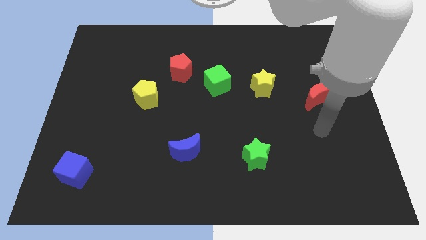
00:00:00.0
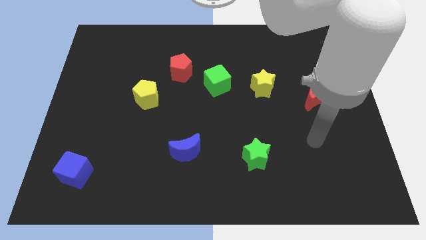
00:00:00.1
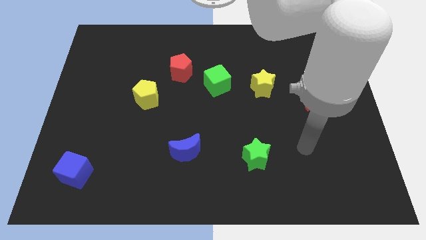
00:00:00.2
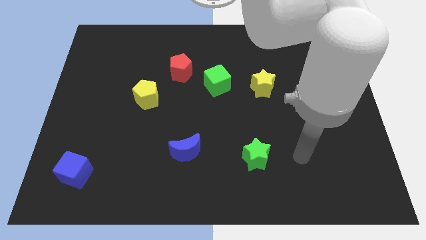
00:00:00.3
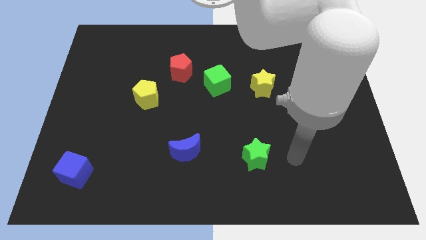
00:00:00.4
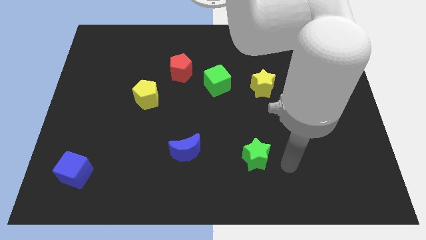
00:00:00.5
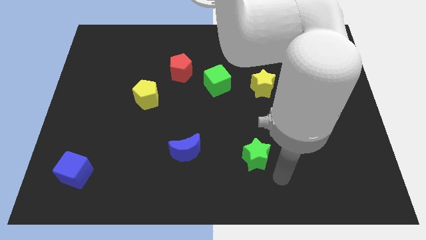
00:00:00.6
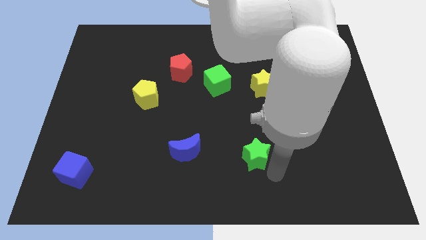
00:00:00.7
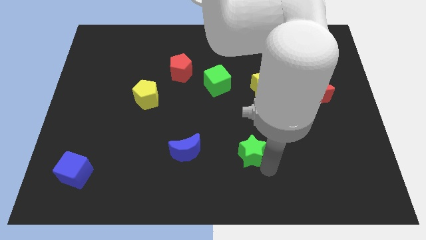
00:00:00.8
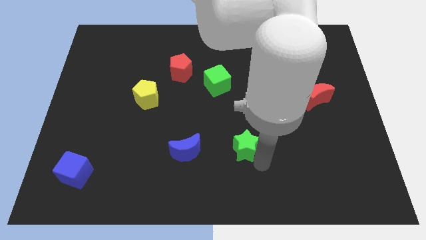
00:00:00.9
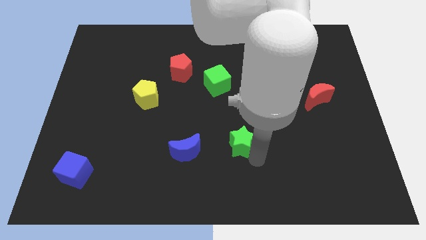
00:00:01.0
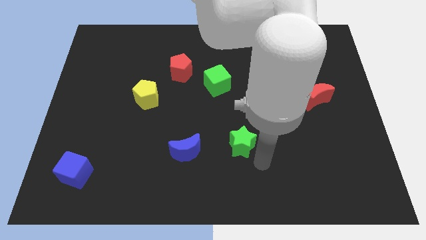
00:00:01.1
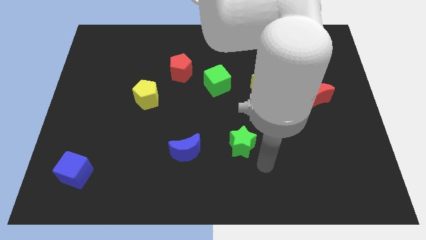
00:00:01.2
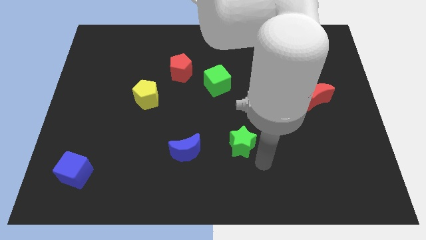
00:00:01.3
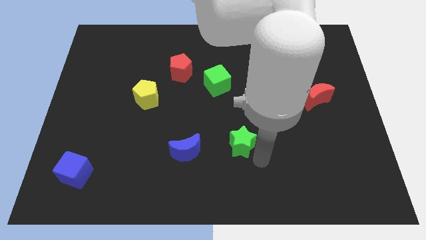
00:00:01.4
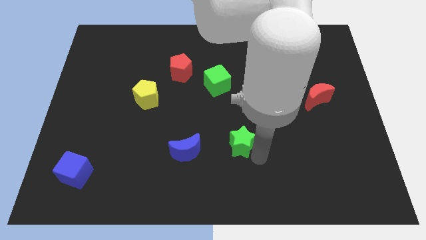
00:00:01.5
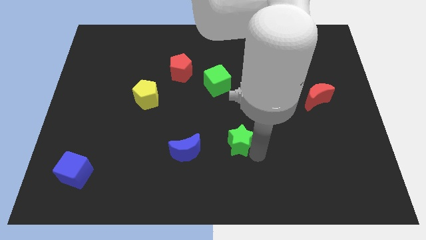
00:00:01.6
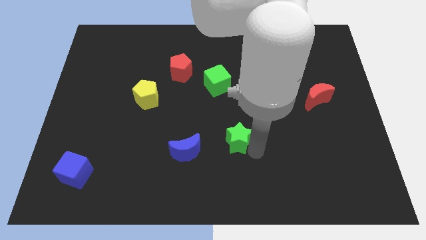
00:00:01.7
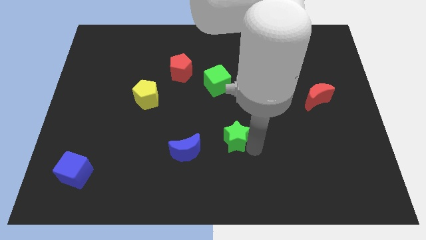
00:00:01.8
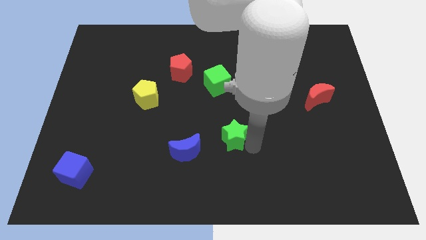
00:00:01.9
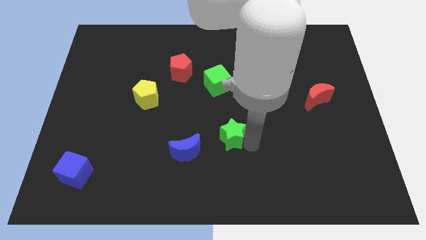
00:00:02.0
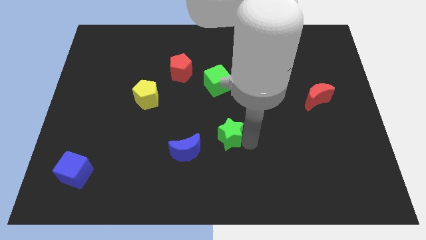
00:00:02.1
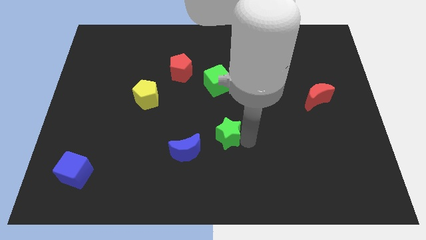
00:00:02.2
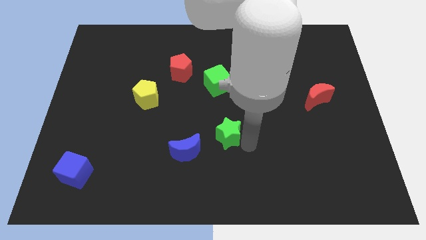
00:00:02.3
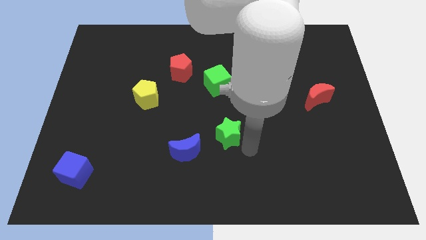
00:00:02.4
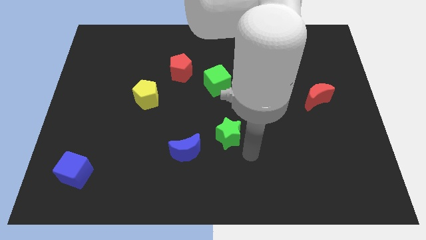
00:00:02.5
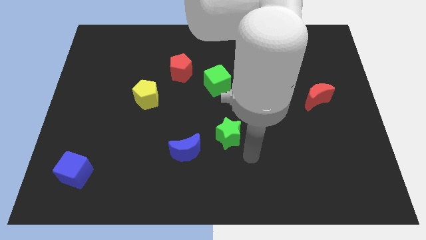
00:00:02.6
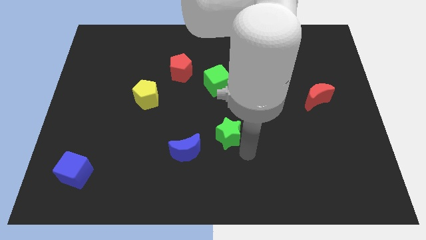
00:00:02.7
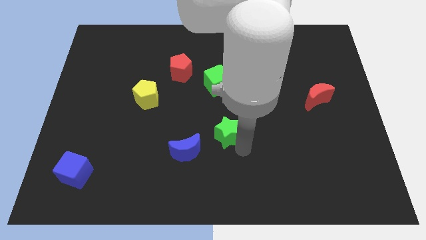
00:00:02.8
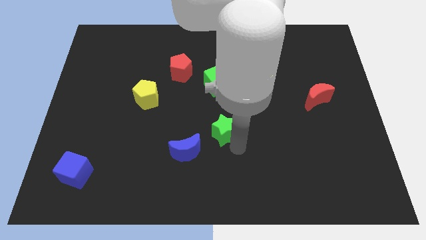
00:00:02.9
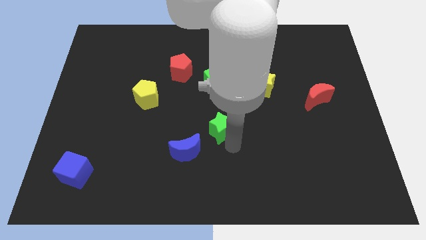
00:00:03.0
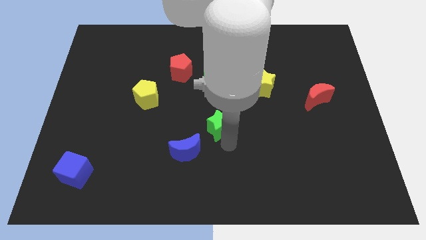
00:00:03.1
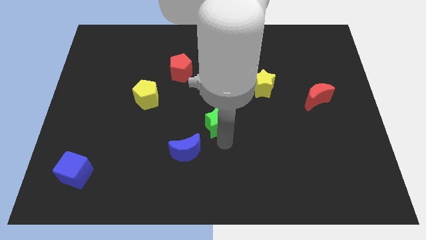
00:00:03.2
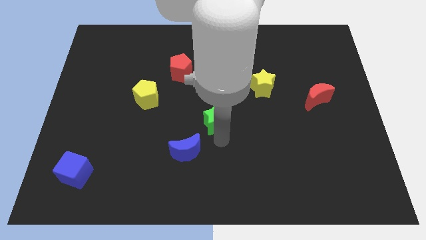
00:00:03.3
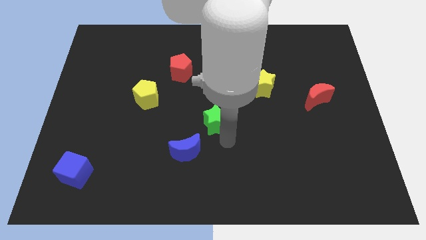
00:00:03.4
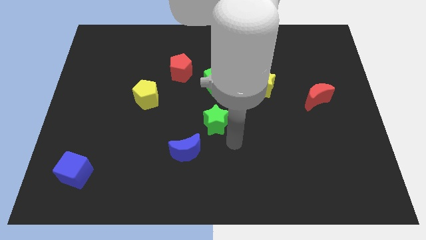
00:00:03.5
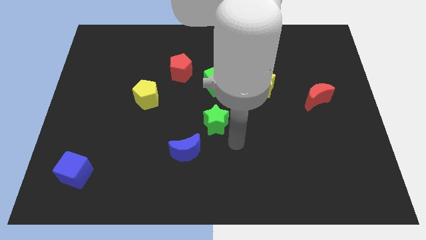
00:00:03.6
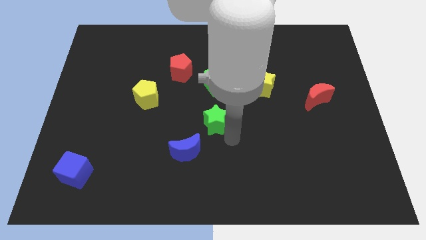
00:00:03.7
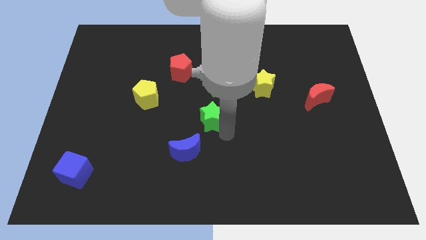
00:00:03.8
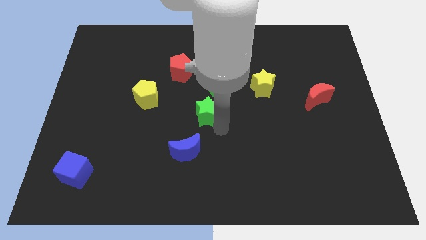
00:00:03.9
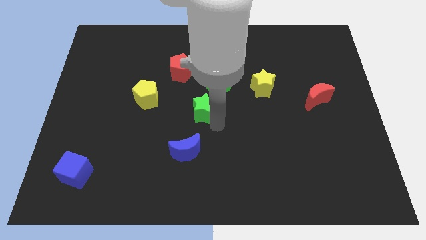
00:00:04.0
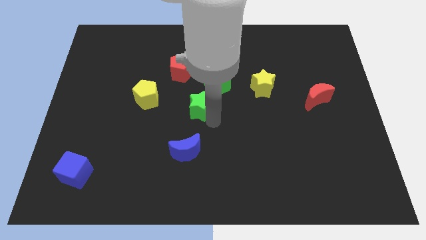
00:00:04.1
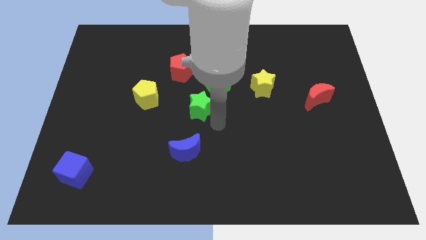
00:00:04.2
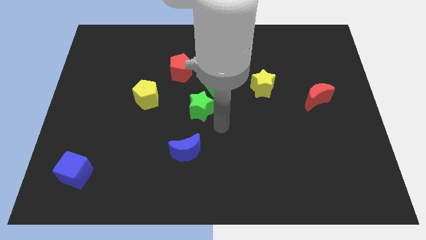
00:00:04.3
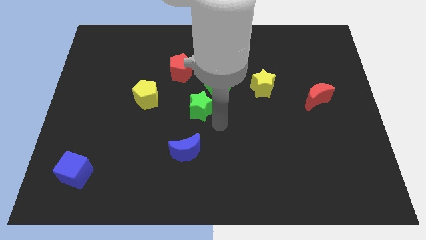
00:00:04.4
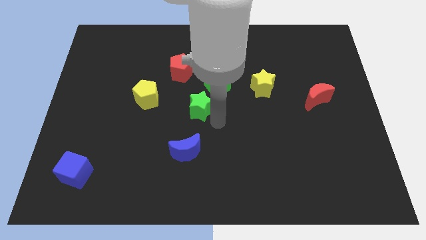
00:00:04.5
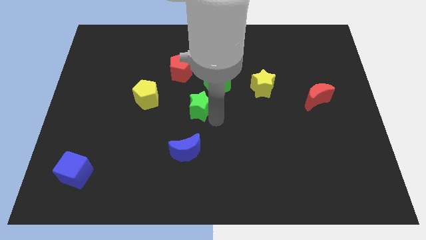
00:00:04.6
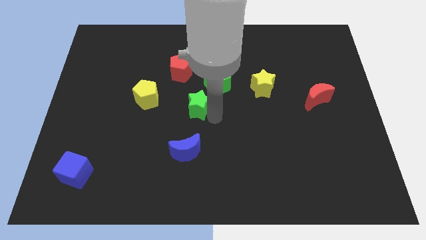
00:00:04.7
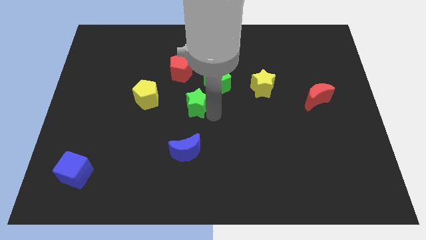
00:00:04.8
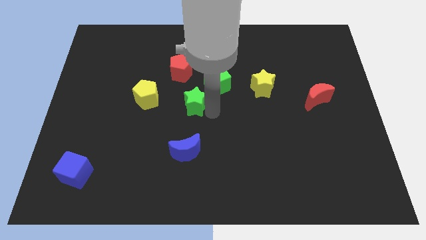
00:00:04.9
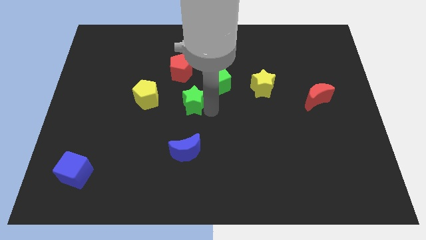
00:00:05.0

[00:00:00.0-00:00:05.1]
move the green star up and left diagonally

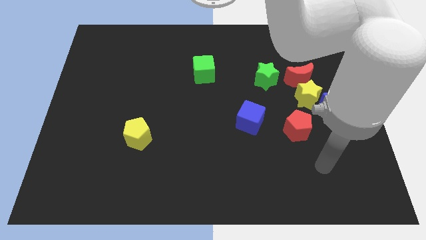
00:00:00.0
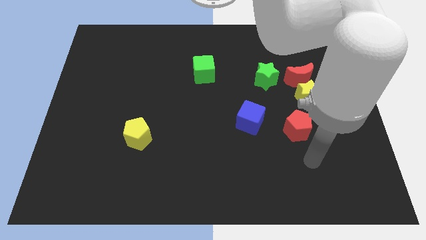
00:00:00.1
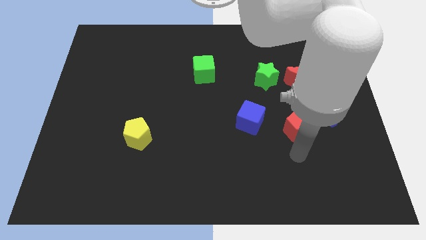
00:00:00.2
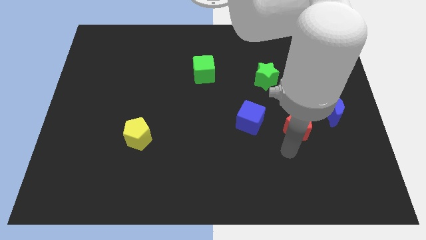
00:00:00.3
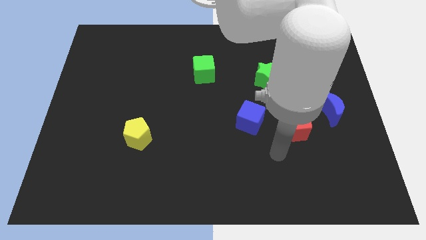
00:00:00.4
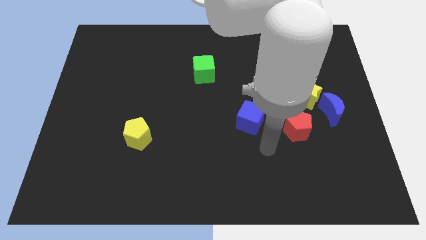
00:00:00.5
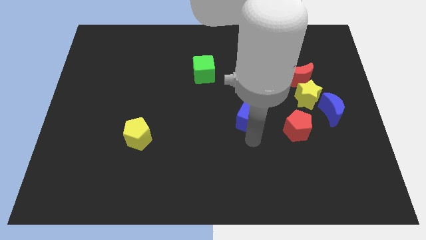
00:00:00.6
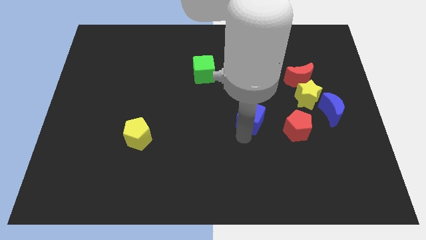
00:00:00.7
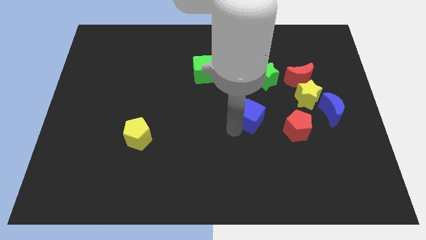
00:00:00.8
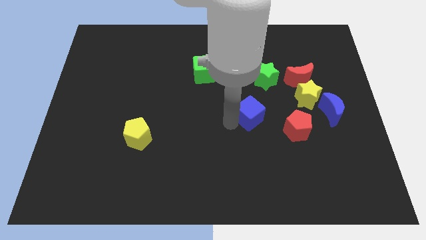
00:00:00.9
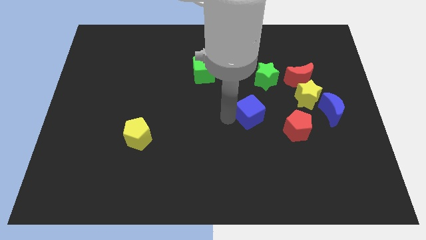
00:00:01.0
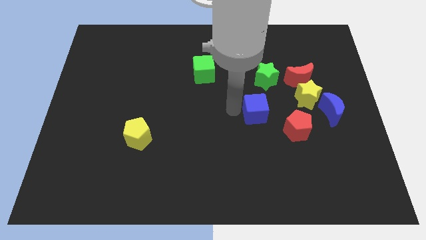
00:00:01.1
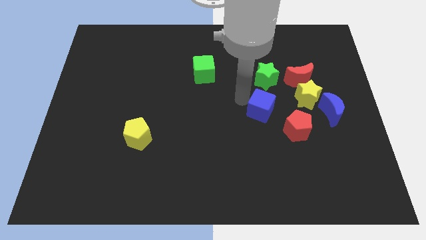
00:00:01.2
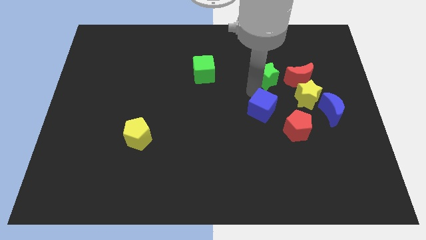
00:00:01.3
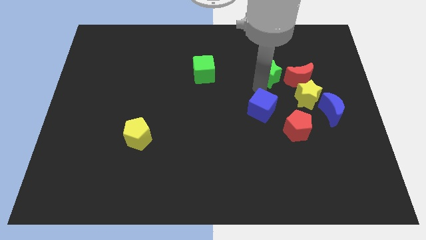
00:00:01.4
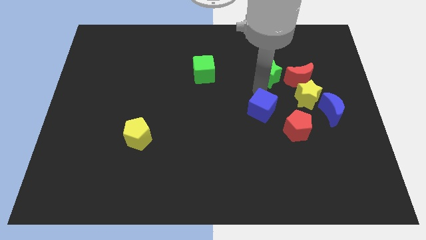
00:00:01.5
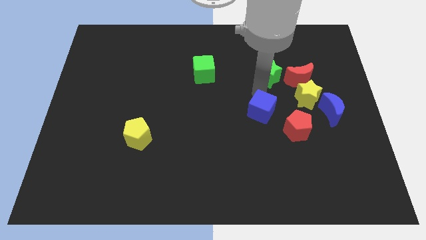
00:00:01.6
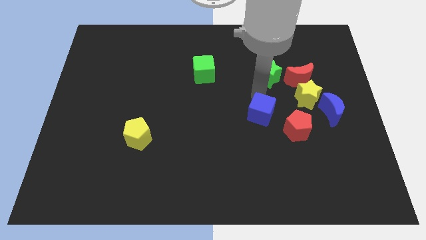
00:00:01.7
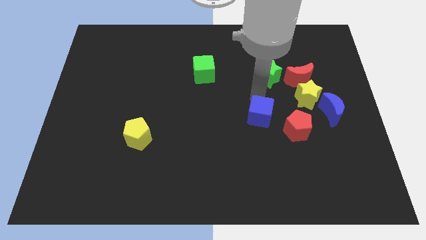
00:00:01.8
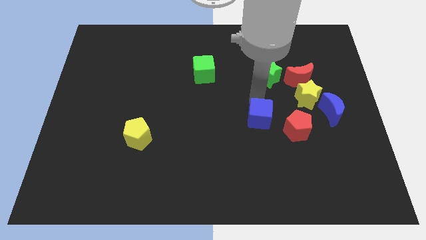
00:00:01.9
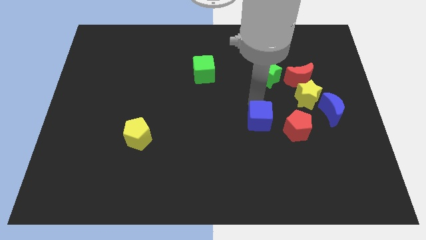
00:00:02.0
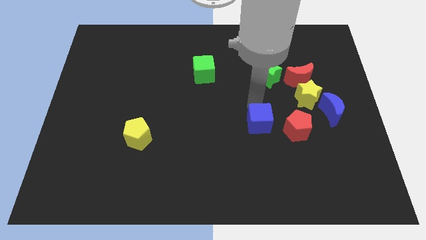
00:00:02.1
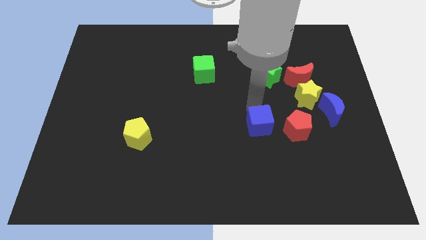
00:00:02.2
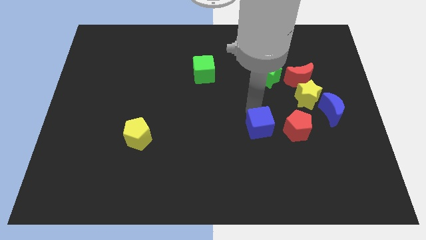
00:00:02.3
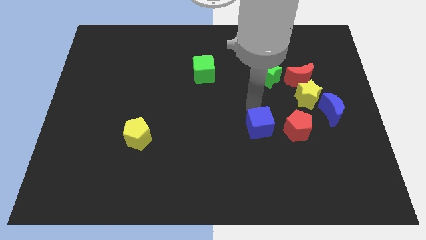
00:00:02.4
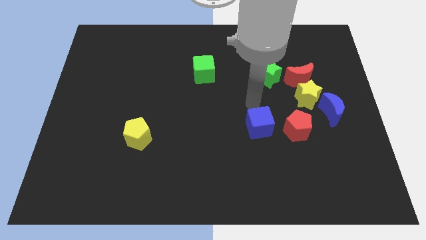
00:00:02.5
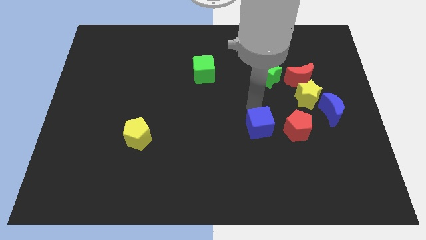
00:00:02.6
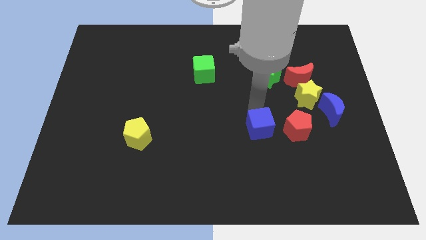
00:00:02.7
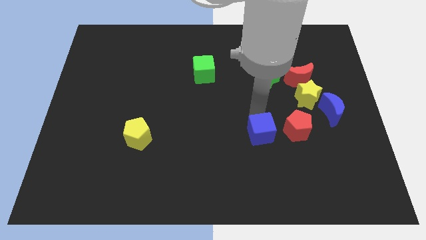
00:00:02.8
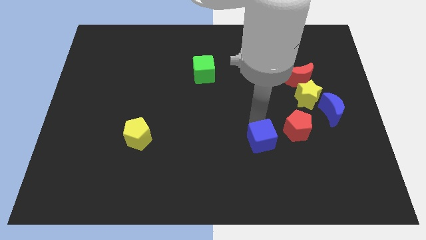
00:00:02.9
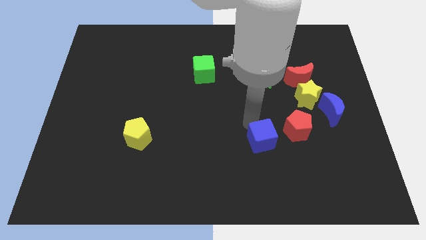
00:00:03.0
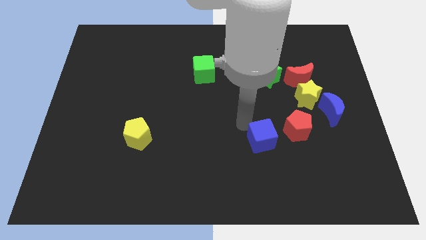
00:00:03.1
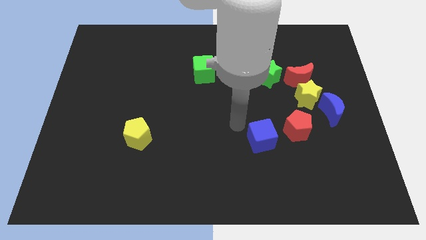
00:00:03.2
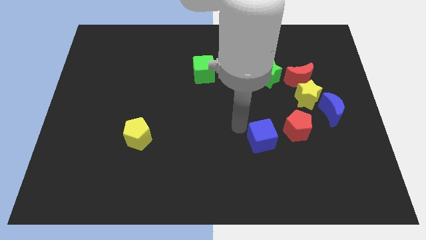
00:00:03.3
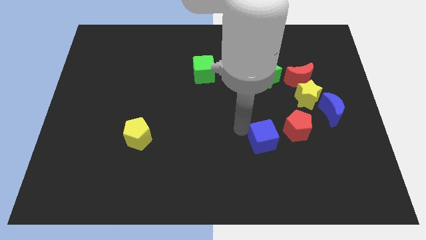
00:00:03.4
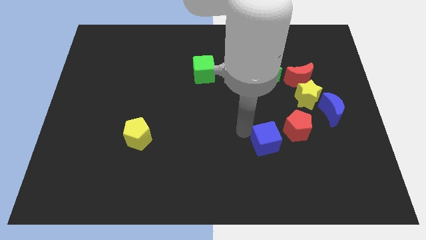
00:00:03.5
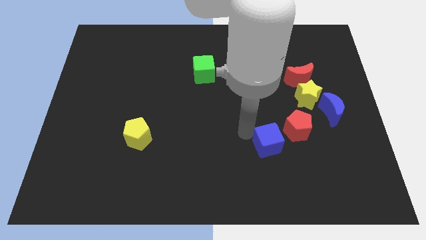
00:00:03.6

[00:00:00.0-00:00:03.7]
push the blue cube somewhat diagonally down and right
